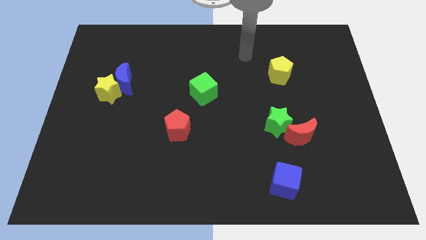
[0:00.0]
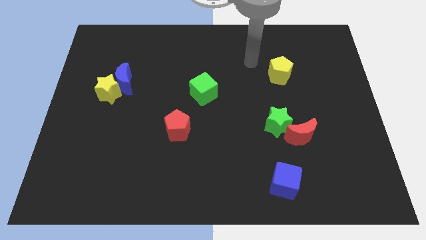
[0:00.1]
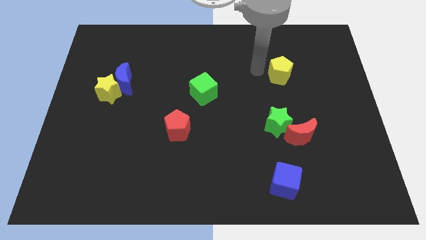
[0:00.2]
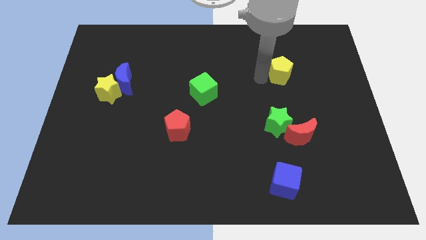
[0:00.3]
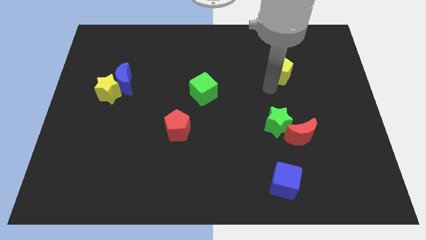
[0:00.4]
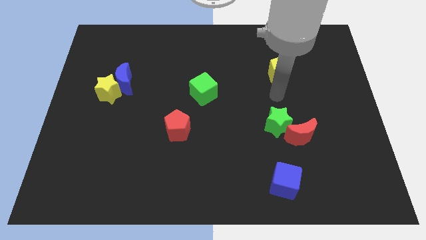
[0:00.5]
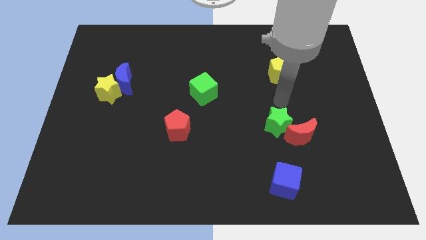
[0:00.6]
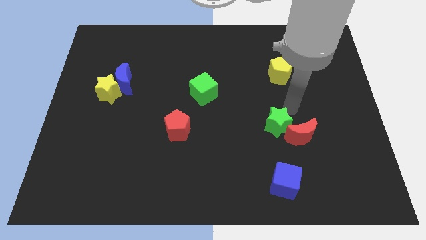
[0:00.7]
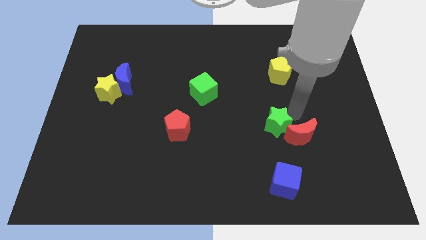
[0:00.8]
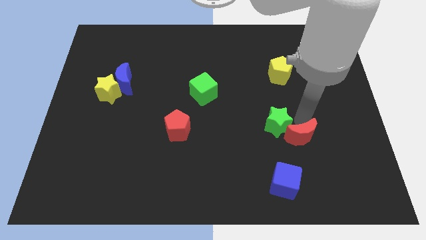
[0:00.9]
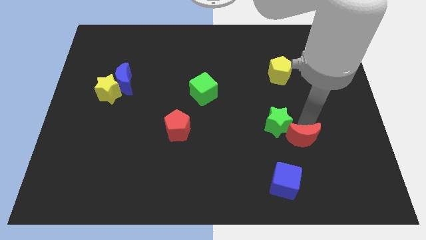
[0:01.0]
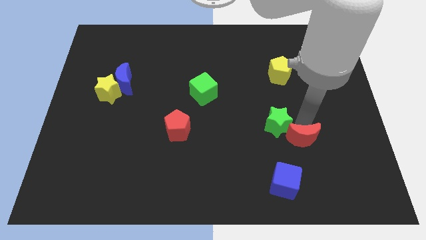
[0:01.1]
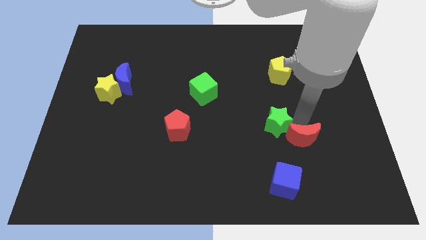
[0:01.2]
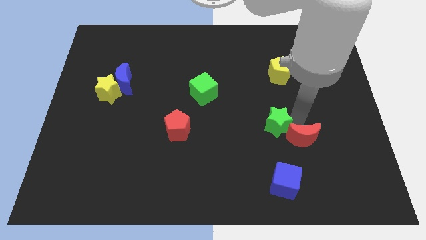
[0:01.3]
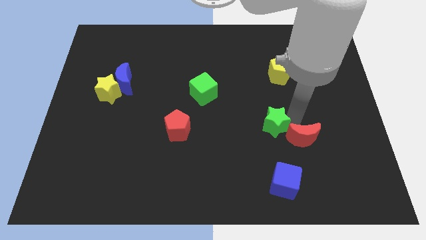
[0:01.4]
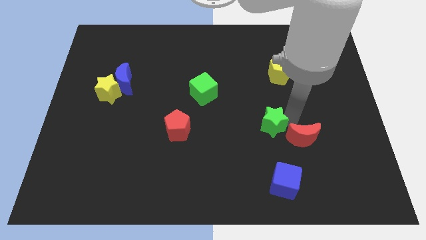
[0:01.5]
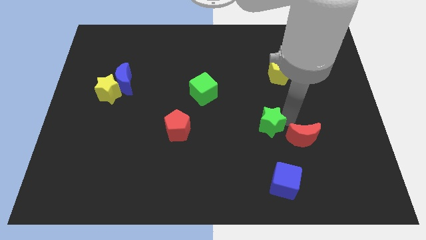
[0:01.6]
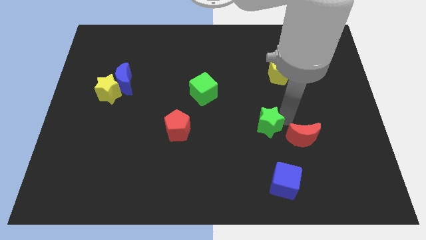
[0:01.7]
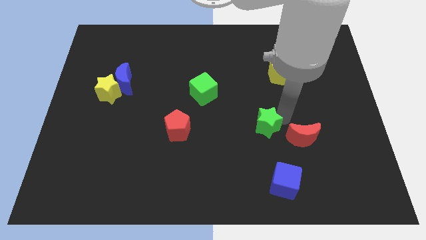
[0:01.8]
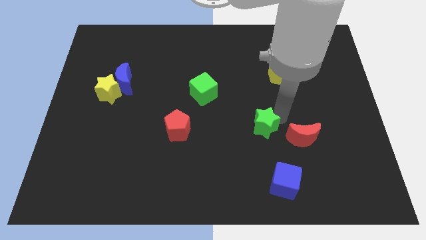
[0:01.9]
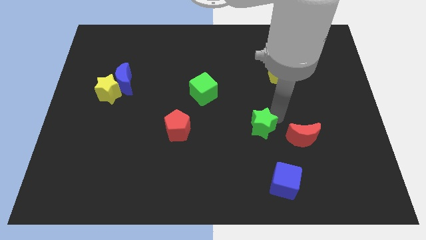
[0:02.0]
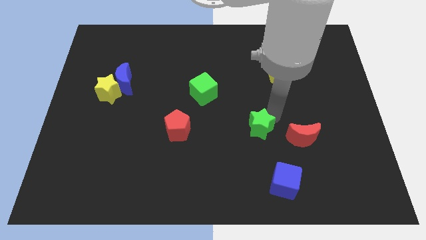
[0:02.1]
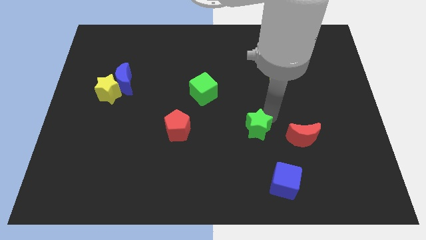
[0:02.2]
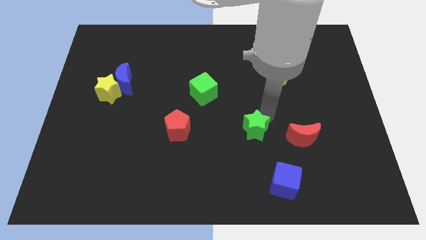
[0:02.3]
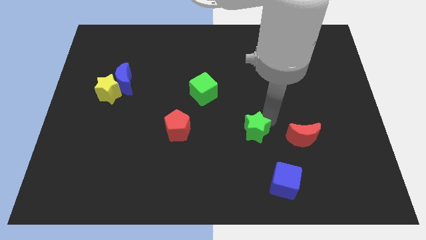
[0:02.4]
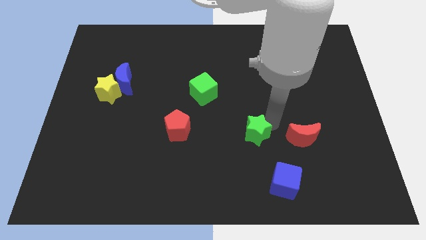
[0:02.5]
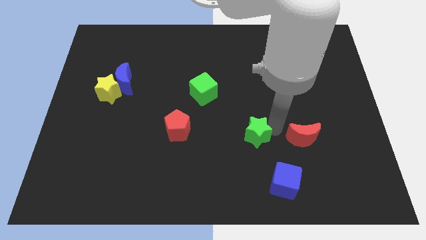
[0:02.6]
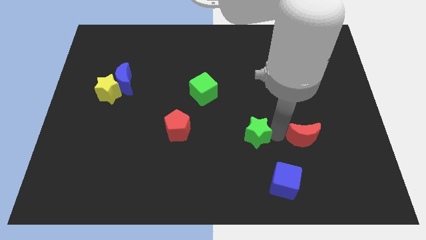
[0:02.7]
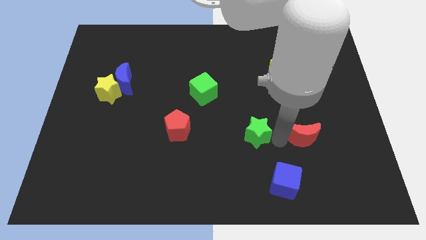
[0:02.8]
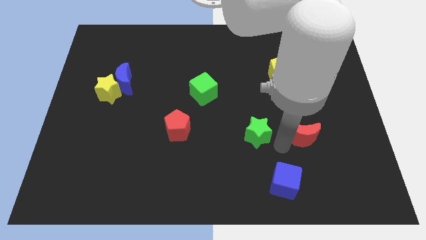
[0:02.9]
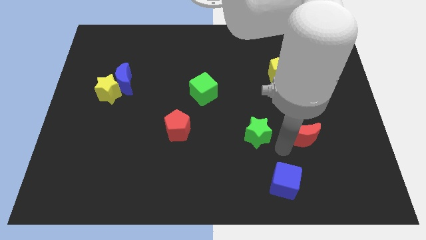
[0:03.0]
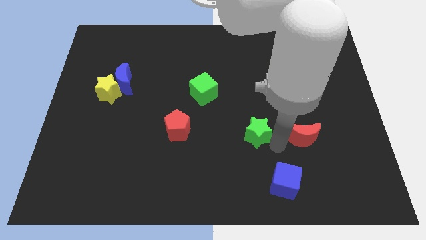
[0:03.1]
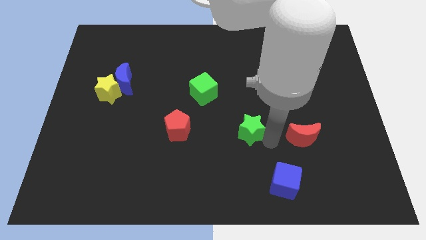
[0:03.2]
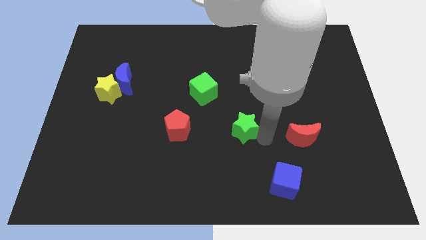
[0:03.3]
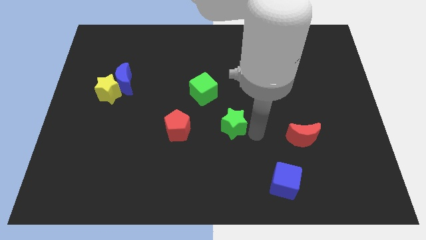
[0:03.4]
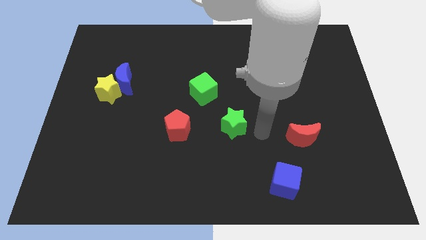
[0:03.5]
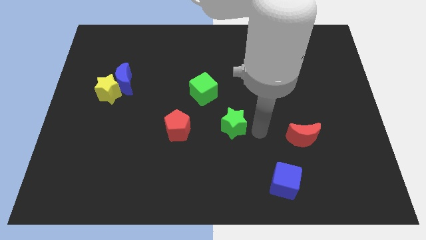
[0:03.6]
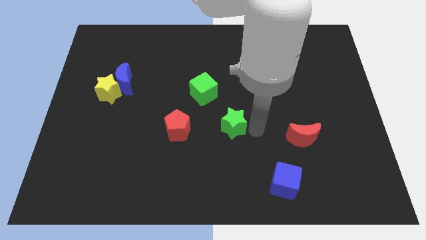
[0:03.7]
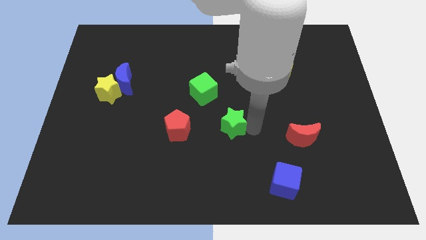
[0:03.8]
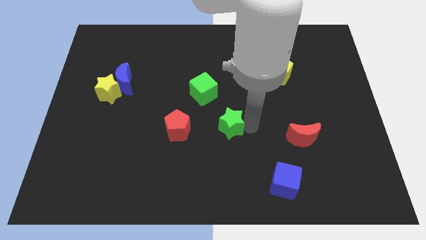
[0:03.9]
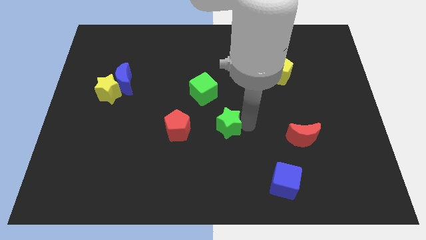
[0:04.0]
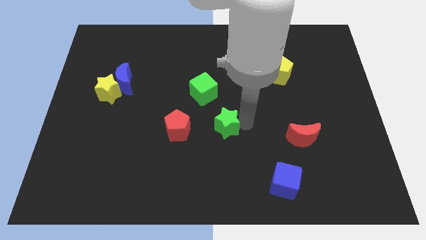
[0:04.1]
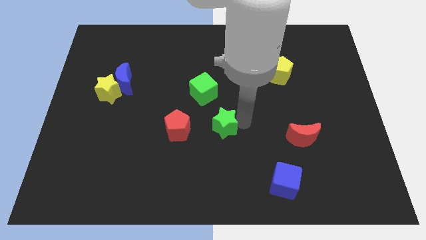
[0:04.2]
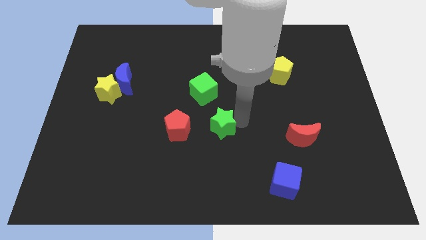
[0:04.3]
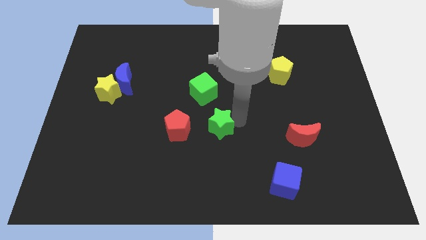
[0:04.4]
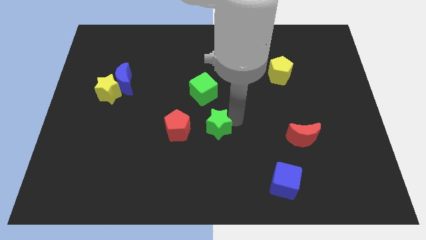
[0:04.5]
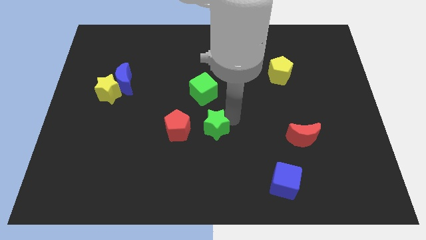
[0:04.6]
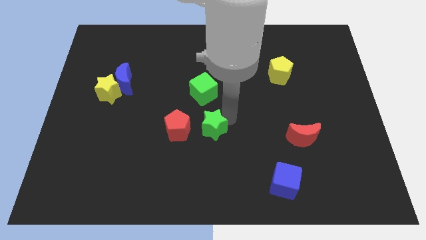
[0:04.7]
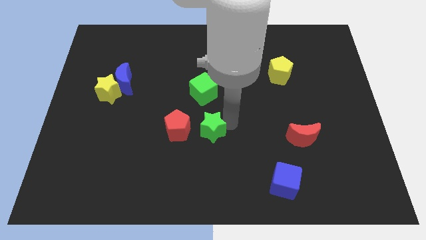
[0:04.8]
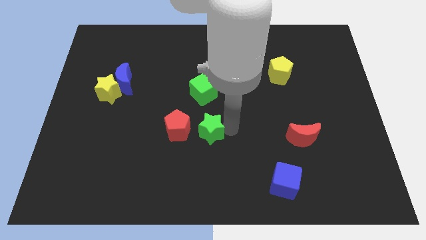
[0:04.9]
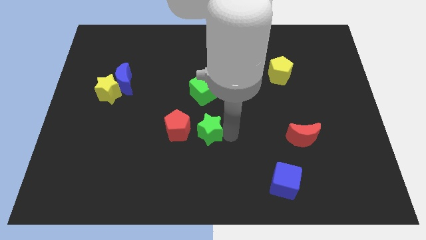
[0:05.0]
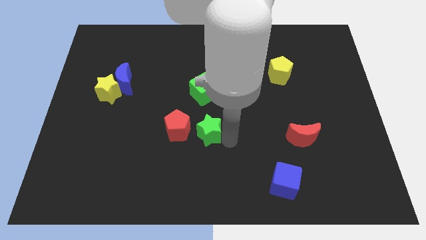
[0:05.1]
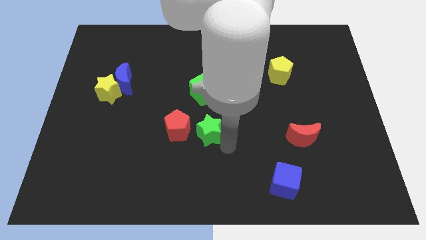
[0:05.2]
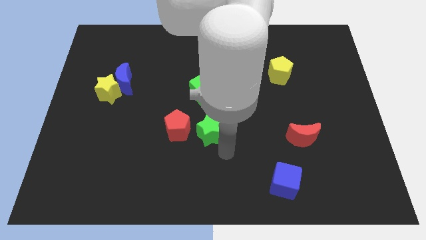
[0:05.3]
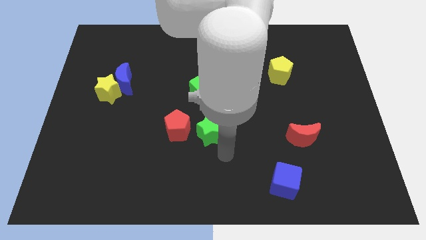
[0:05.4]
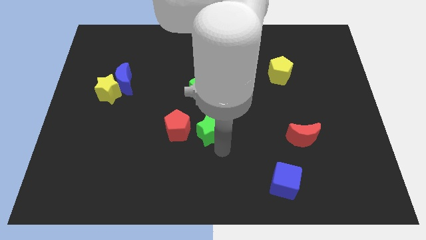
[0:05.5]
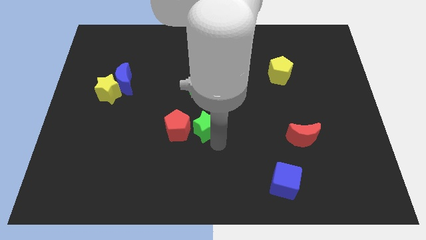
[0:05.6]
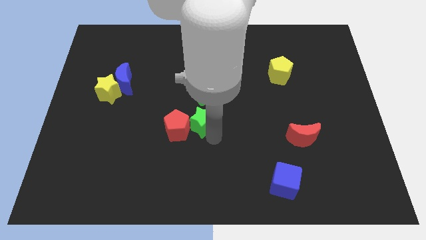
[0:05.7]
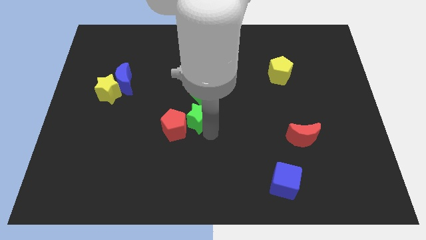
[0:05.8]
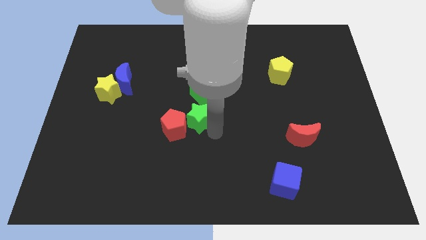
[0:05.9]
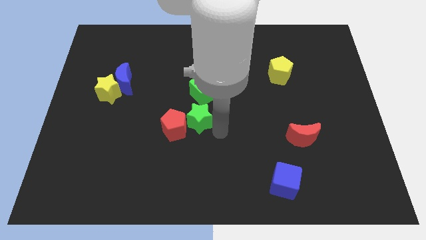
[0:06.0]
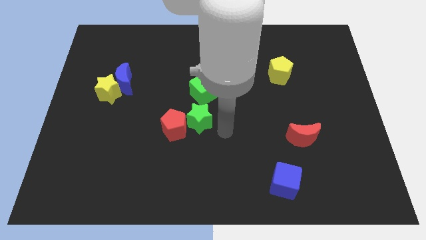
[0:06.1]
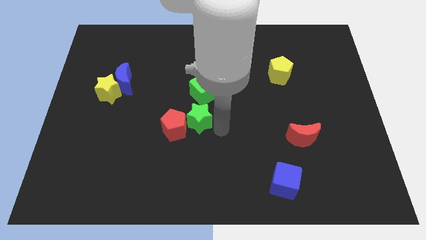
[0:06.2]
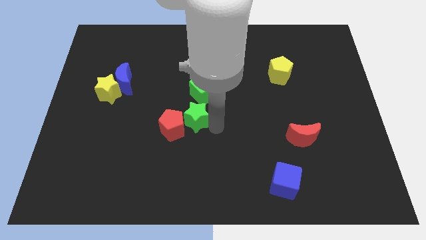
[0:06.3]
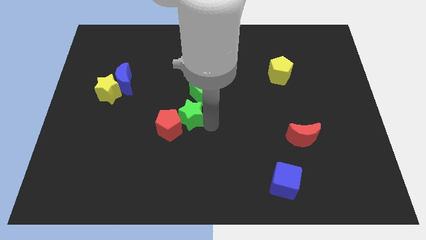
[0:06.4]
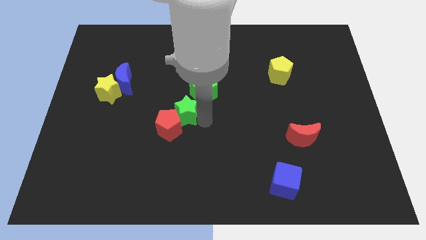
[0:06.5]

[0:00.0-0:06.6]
move the green star to the left

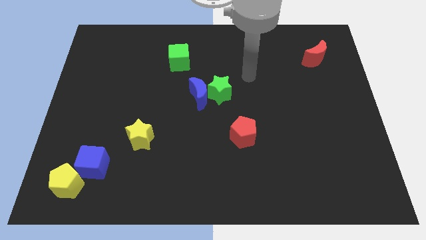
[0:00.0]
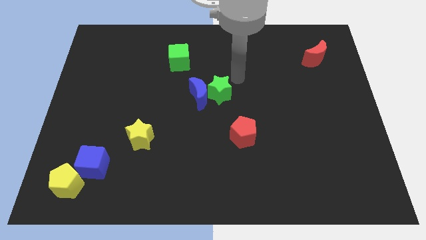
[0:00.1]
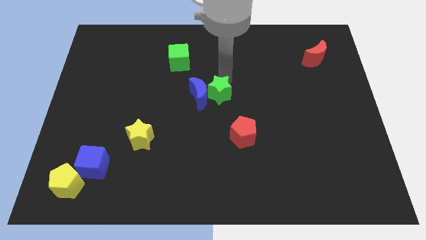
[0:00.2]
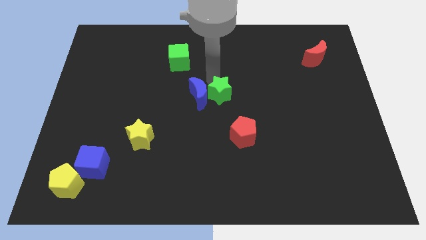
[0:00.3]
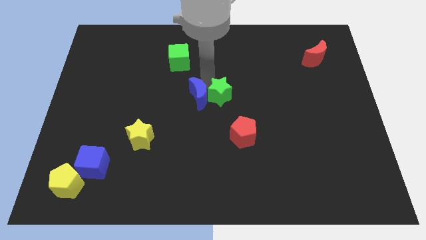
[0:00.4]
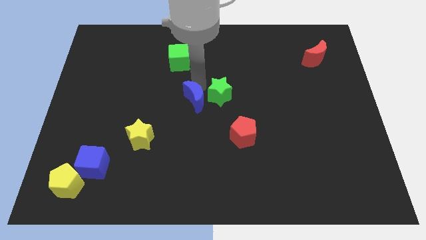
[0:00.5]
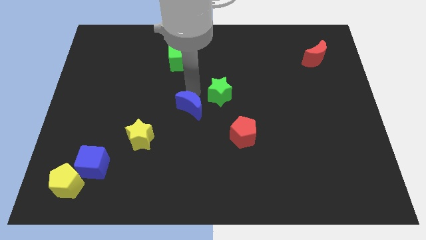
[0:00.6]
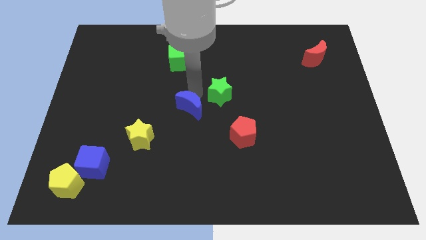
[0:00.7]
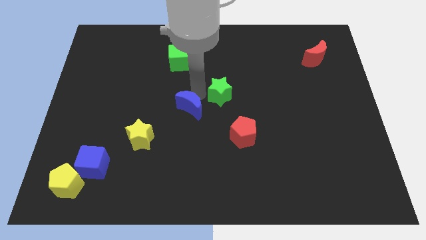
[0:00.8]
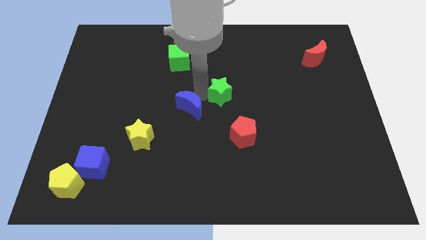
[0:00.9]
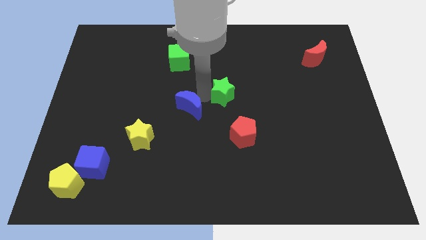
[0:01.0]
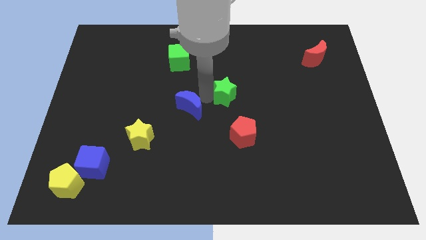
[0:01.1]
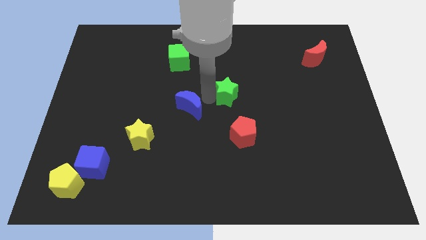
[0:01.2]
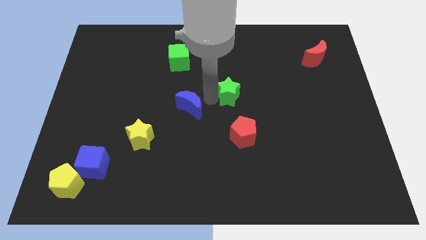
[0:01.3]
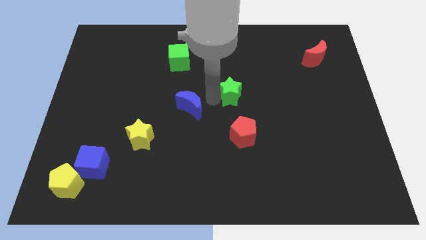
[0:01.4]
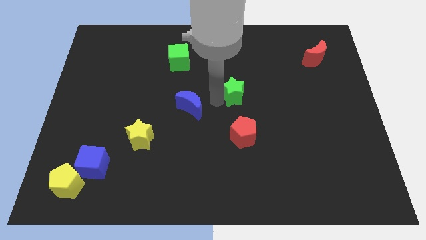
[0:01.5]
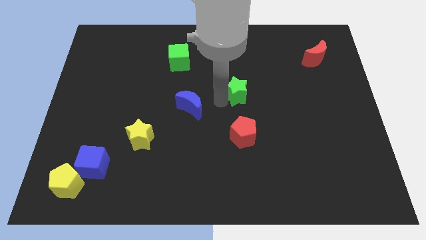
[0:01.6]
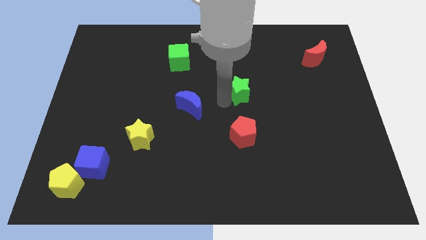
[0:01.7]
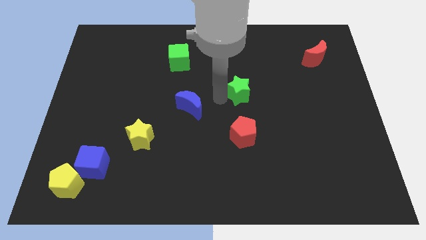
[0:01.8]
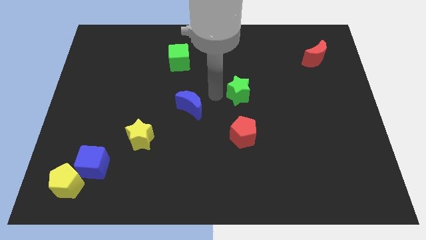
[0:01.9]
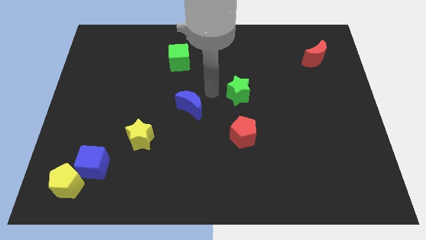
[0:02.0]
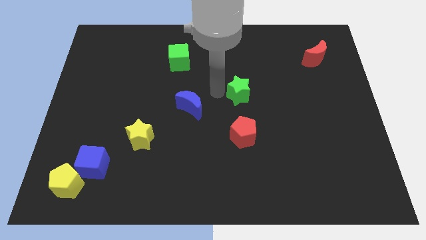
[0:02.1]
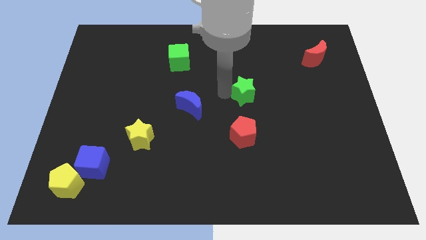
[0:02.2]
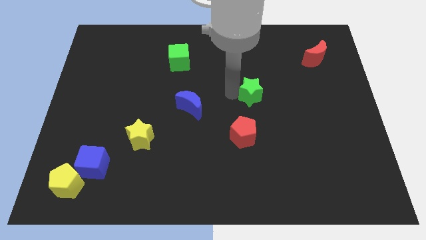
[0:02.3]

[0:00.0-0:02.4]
slide the green star right a little
